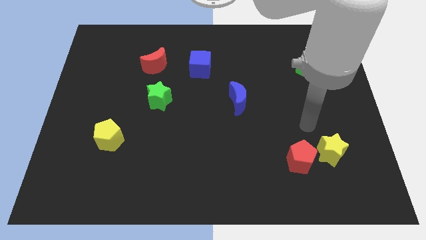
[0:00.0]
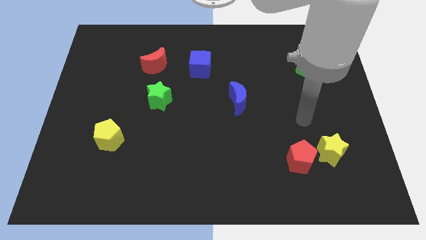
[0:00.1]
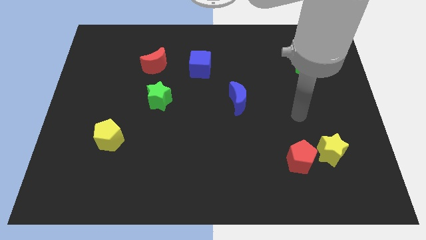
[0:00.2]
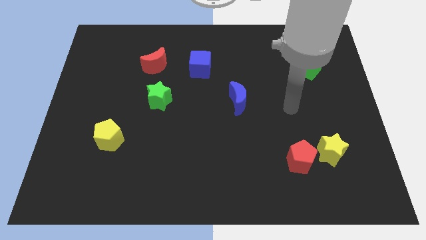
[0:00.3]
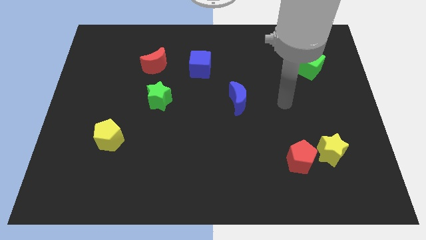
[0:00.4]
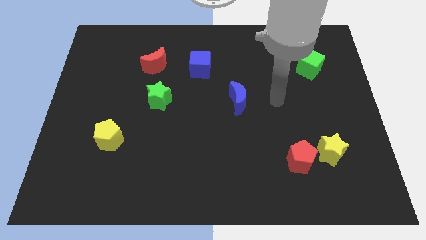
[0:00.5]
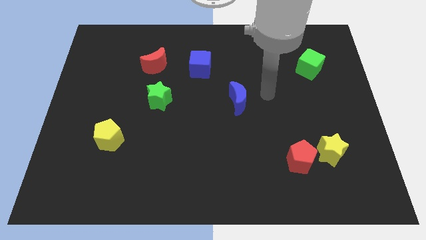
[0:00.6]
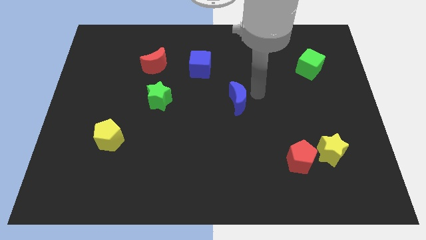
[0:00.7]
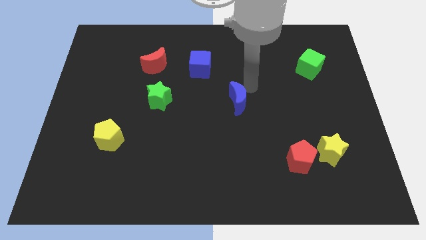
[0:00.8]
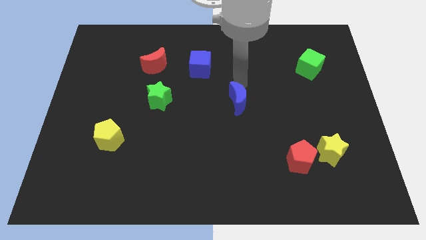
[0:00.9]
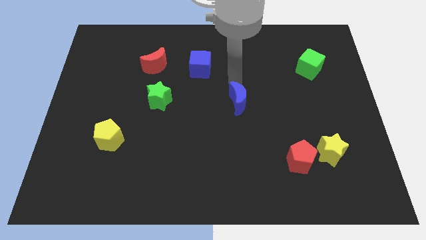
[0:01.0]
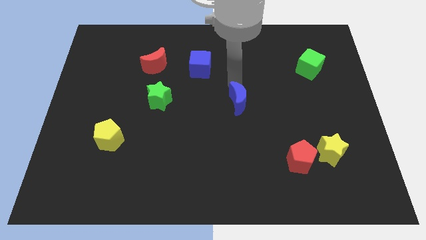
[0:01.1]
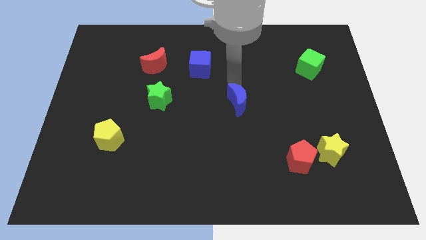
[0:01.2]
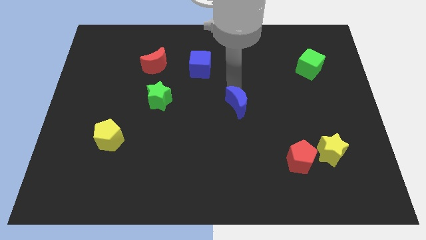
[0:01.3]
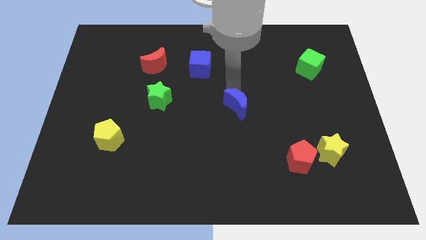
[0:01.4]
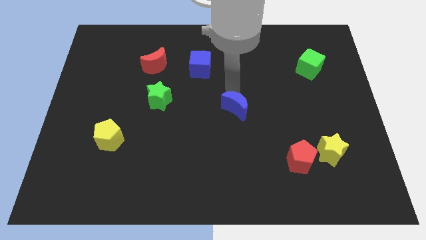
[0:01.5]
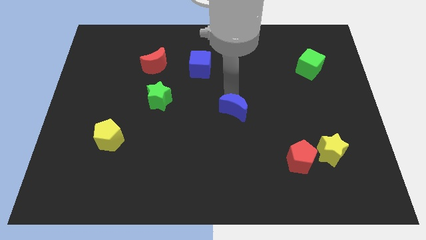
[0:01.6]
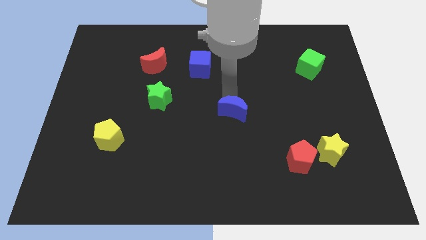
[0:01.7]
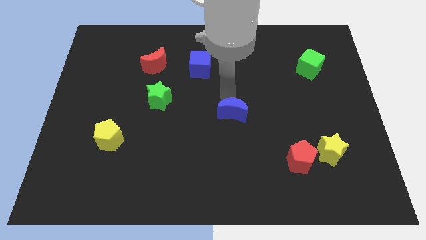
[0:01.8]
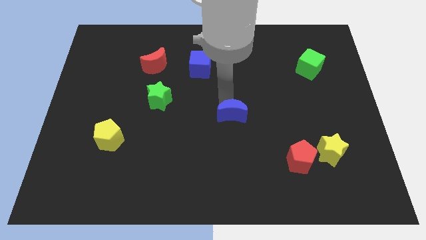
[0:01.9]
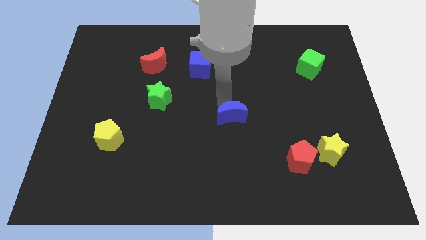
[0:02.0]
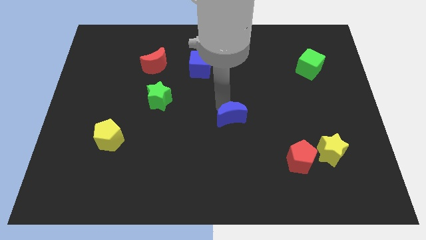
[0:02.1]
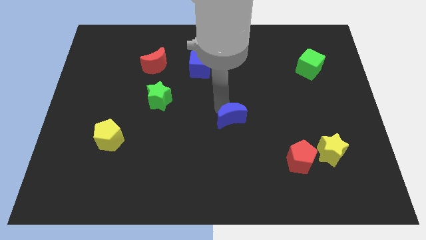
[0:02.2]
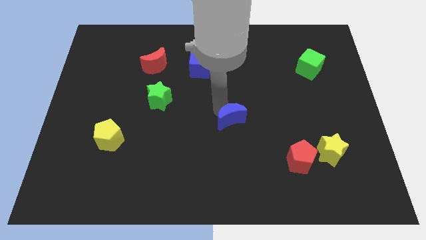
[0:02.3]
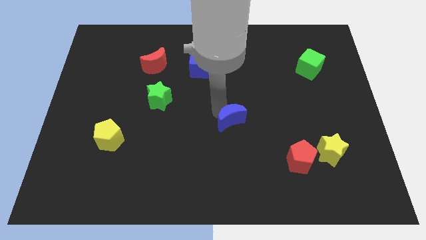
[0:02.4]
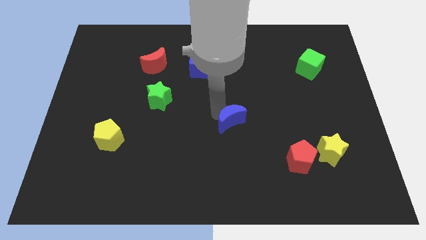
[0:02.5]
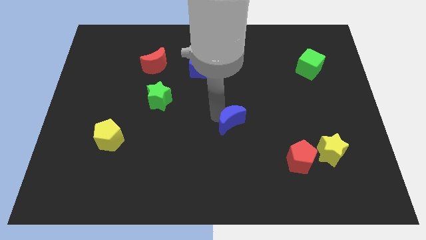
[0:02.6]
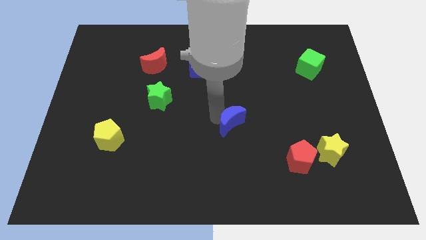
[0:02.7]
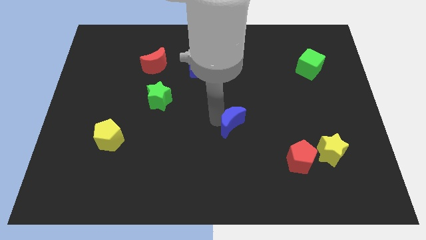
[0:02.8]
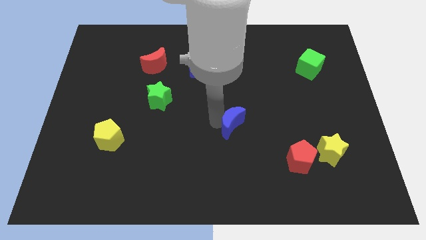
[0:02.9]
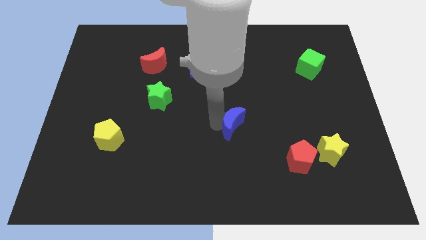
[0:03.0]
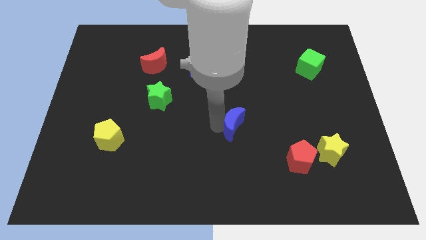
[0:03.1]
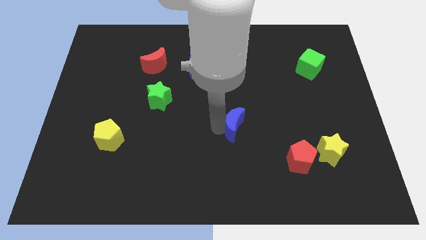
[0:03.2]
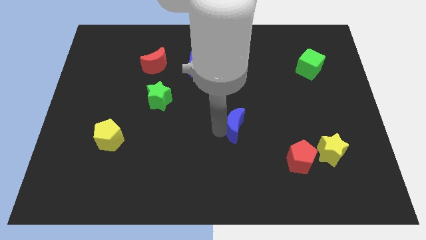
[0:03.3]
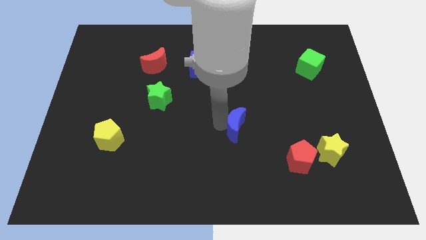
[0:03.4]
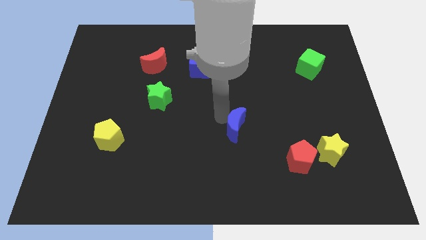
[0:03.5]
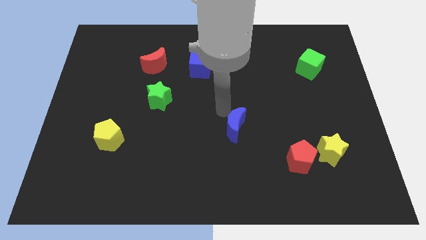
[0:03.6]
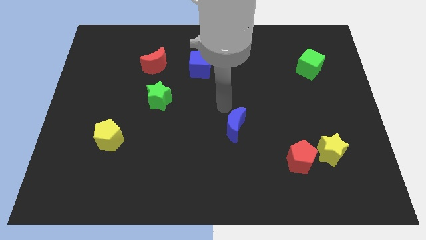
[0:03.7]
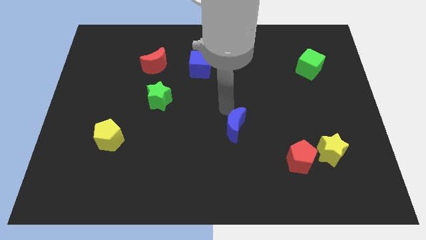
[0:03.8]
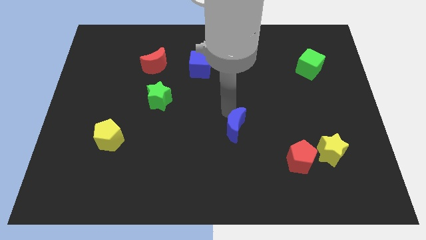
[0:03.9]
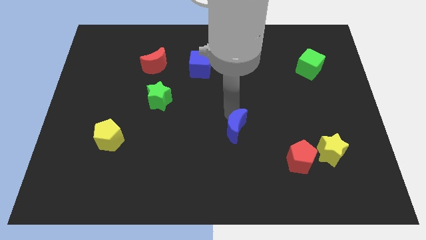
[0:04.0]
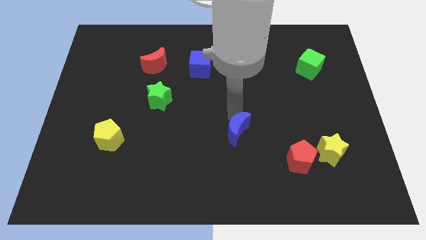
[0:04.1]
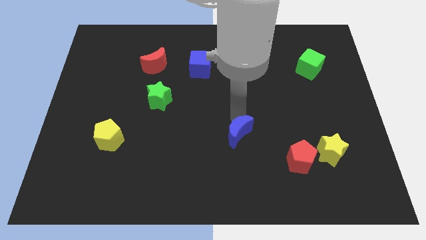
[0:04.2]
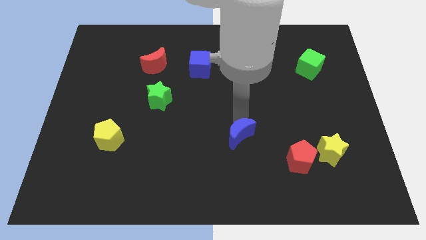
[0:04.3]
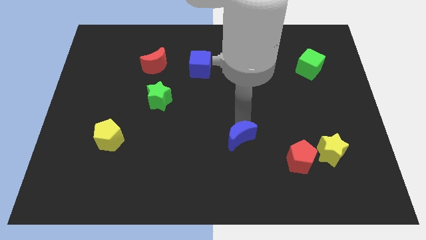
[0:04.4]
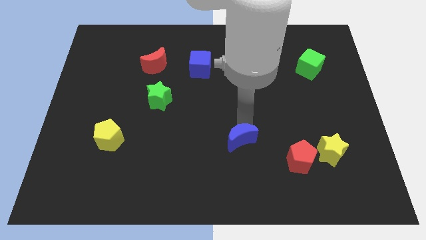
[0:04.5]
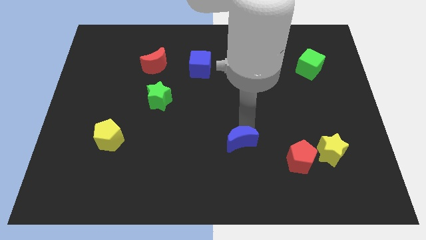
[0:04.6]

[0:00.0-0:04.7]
slide the blue moon just left of the red pentagon

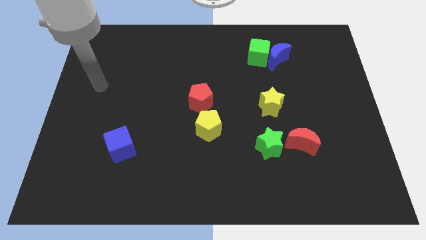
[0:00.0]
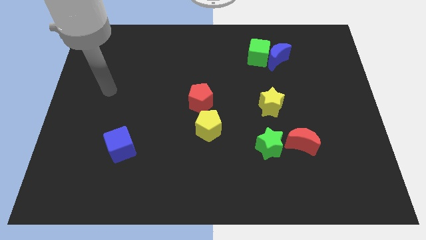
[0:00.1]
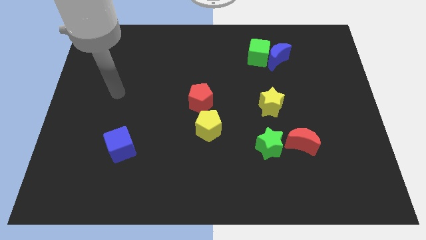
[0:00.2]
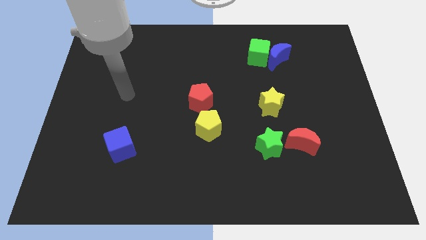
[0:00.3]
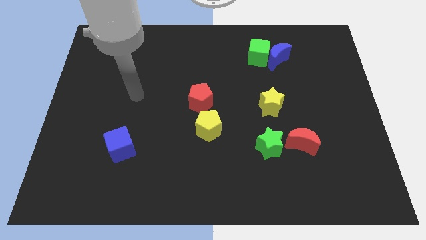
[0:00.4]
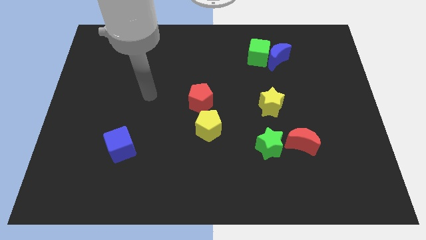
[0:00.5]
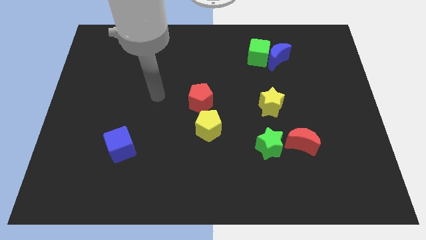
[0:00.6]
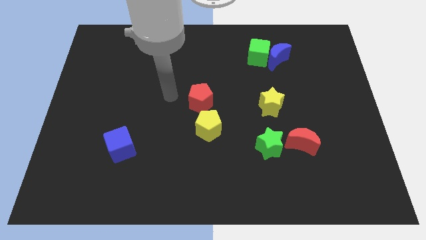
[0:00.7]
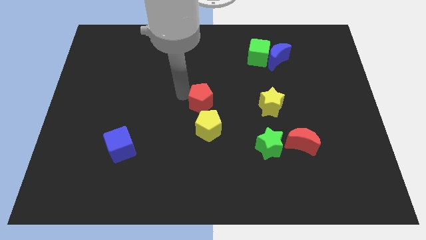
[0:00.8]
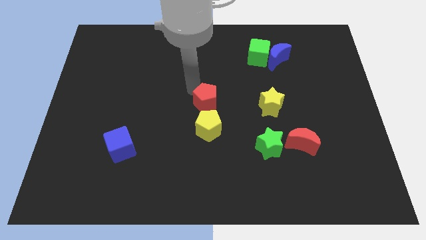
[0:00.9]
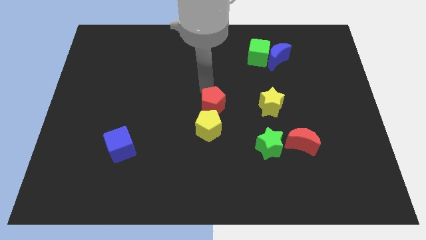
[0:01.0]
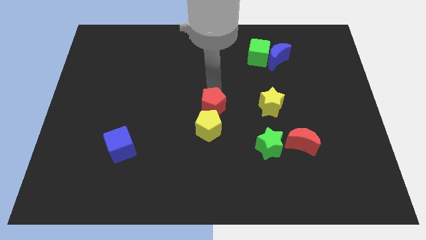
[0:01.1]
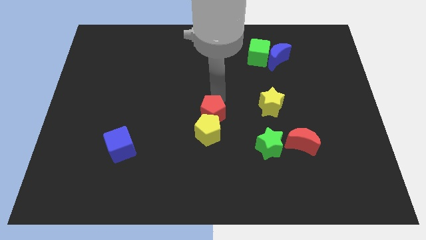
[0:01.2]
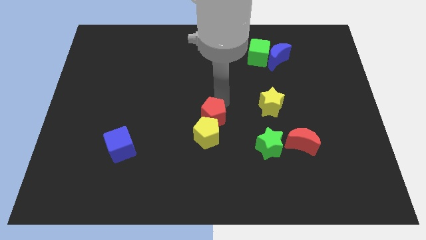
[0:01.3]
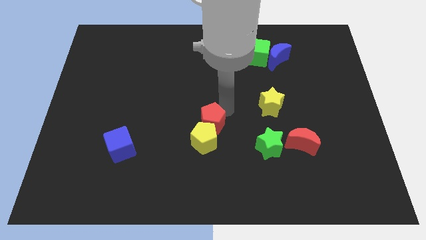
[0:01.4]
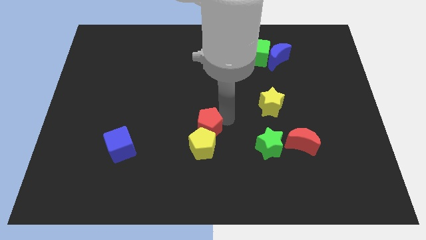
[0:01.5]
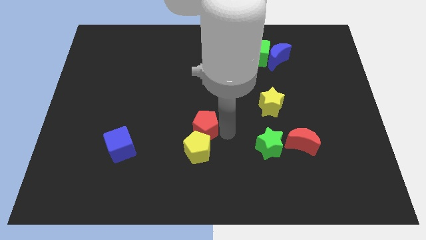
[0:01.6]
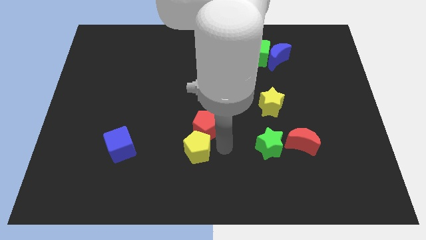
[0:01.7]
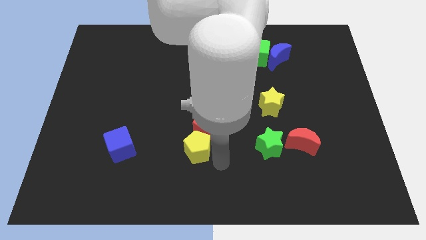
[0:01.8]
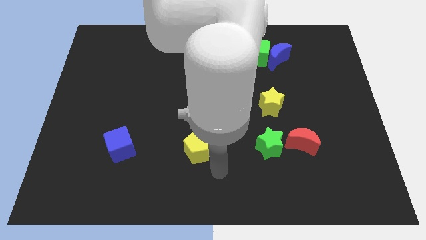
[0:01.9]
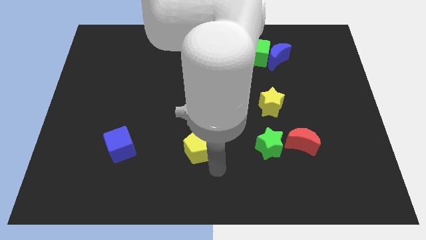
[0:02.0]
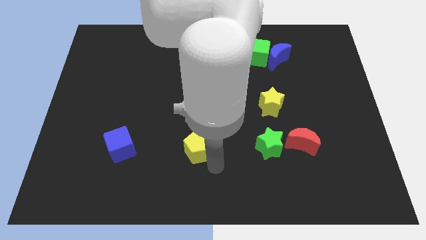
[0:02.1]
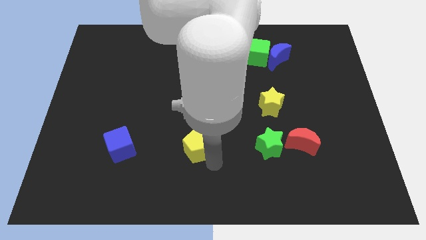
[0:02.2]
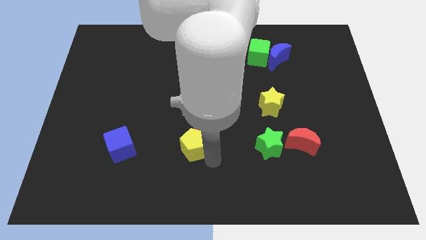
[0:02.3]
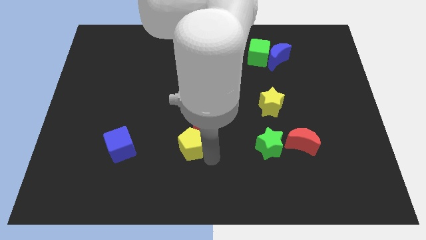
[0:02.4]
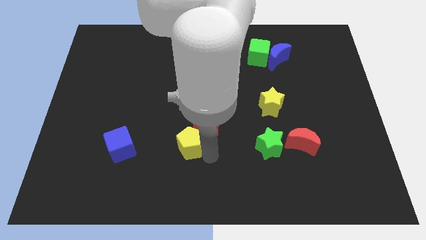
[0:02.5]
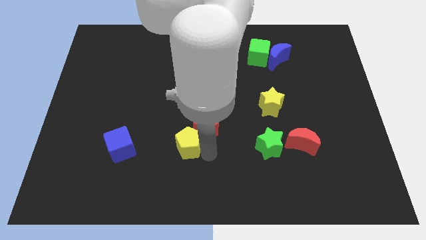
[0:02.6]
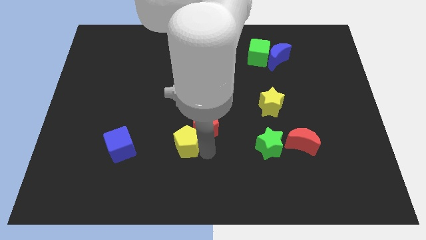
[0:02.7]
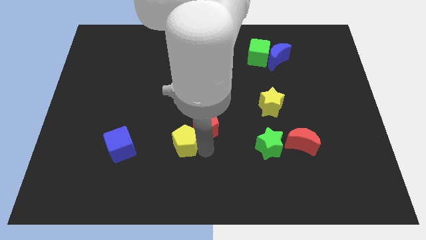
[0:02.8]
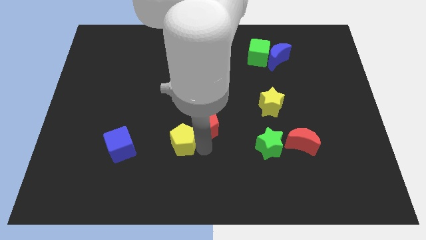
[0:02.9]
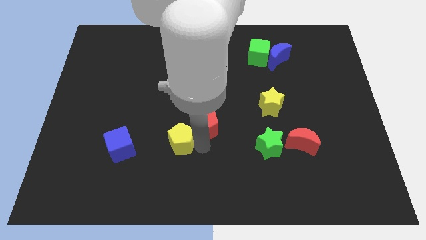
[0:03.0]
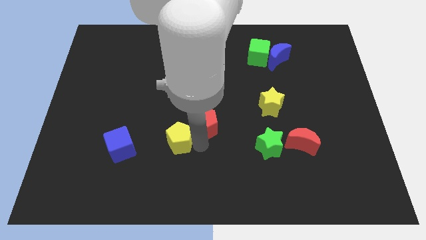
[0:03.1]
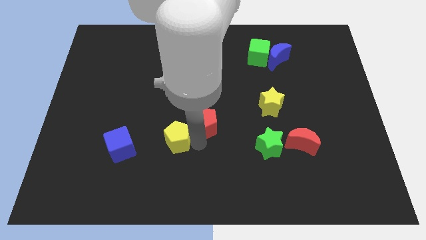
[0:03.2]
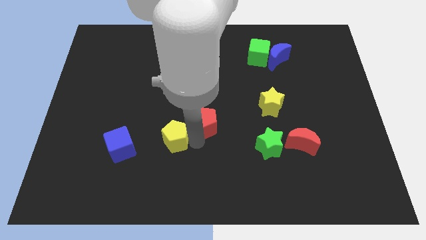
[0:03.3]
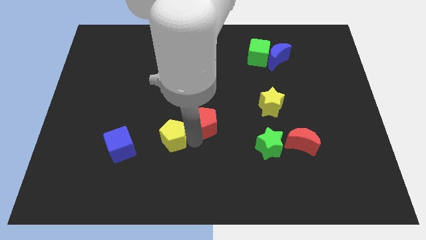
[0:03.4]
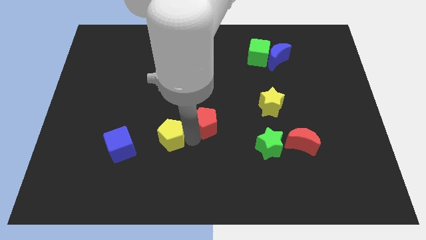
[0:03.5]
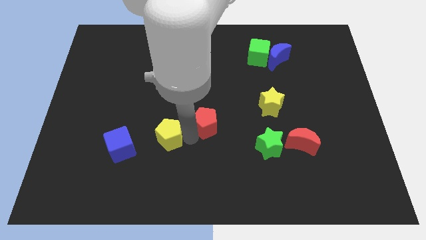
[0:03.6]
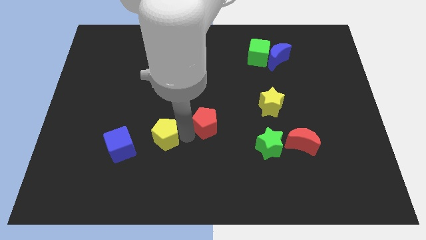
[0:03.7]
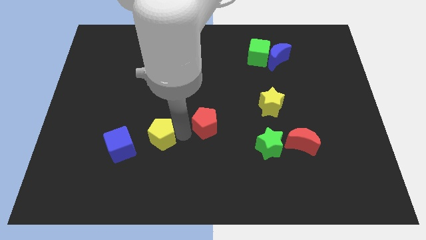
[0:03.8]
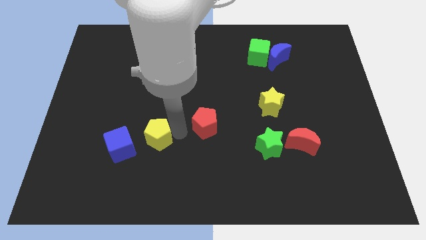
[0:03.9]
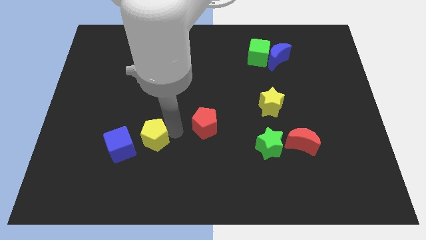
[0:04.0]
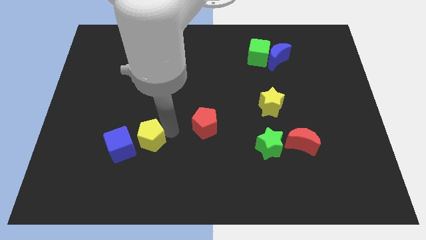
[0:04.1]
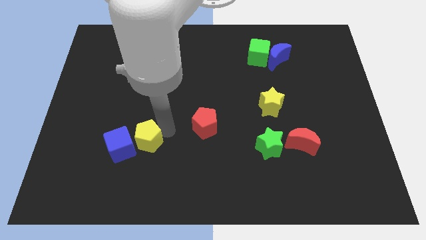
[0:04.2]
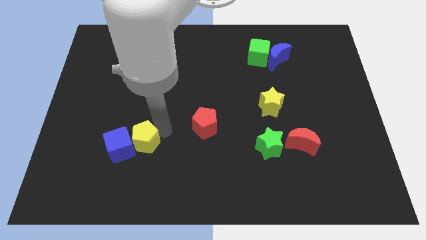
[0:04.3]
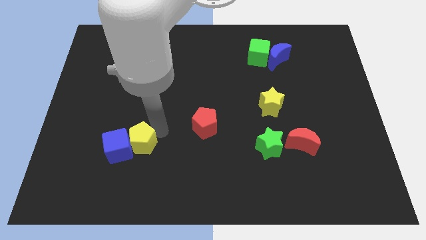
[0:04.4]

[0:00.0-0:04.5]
put the yellow pentagon to the bottom right side of the blue cube
